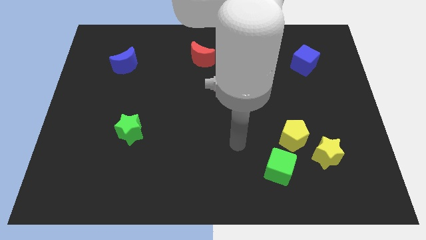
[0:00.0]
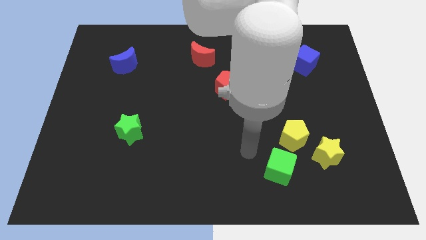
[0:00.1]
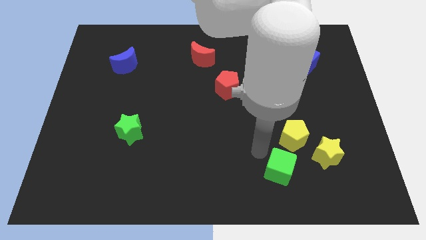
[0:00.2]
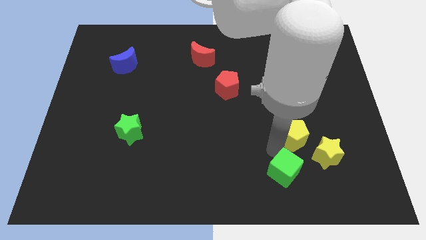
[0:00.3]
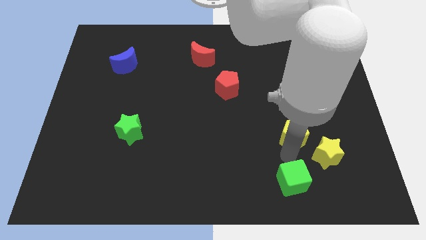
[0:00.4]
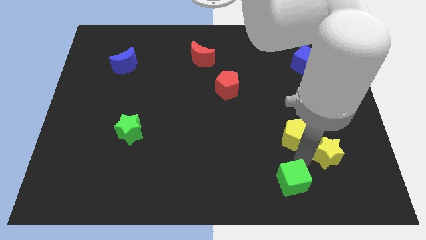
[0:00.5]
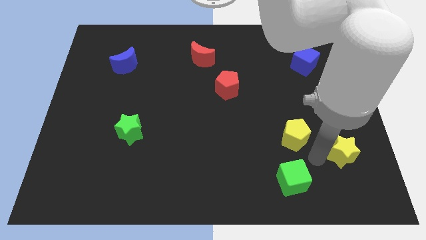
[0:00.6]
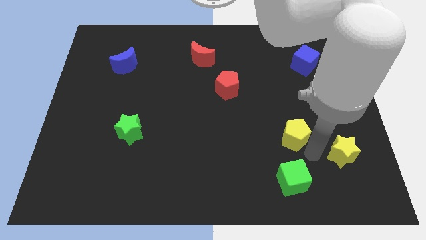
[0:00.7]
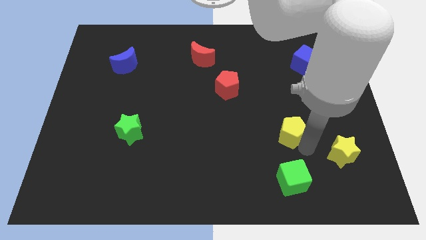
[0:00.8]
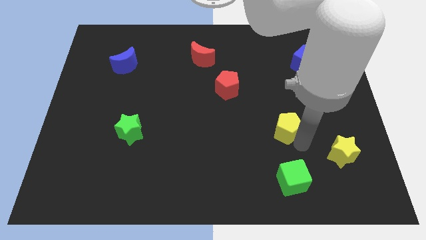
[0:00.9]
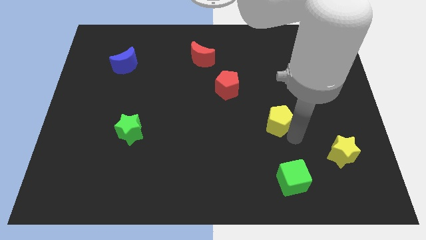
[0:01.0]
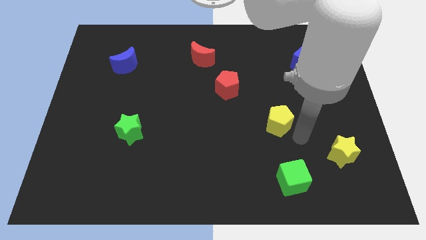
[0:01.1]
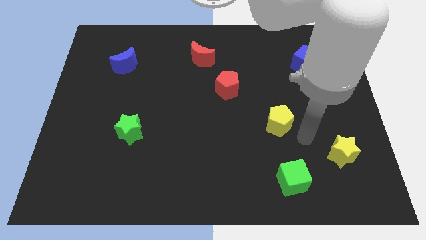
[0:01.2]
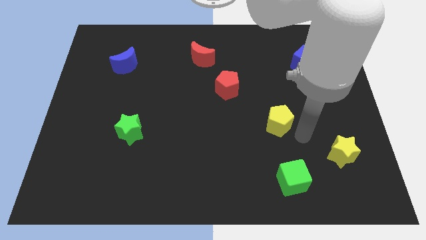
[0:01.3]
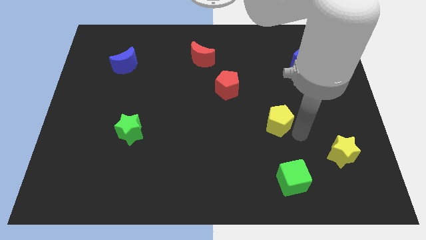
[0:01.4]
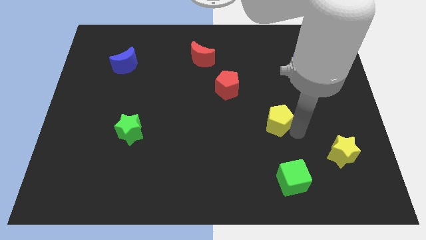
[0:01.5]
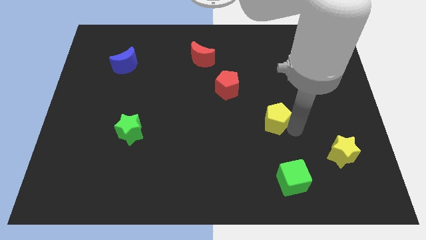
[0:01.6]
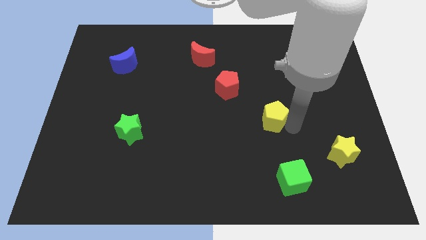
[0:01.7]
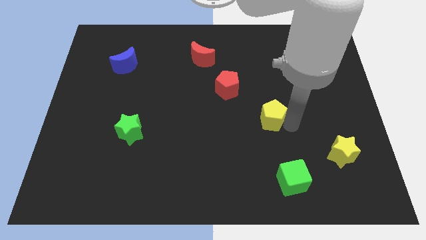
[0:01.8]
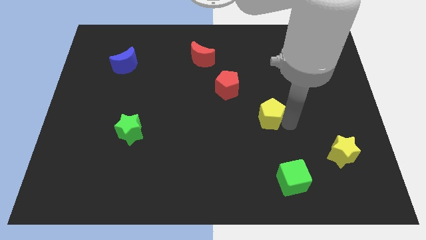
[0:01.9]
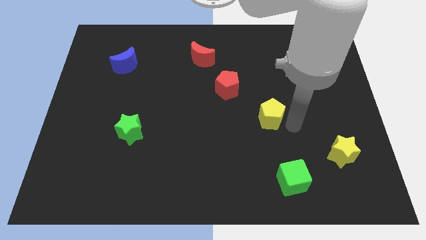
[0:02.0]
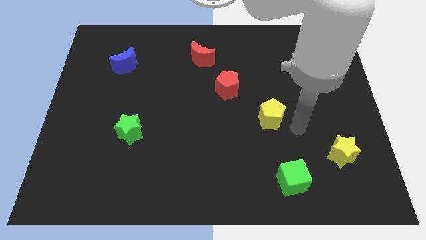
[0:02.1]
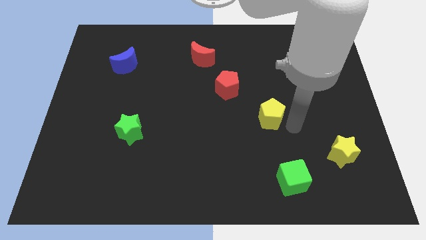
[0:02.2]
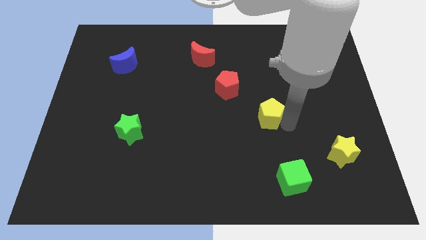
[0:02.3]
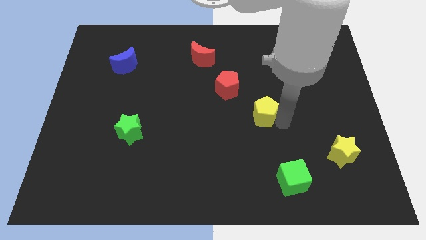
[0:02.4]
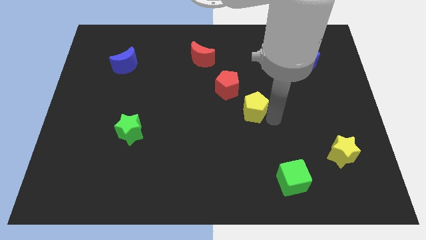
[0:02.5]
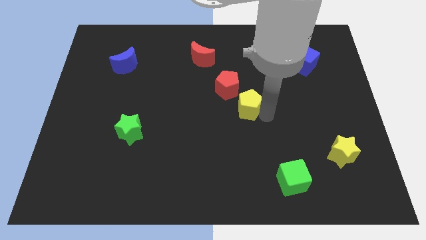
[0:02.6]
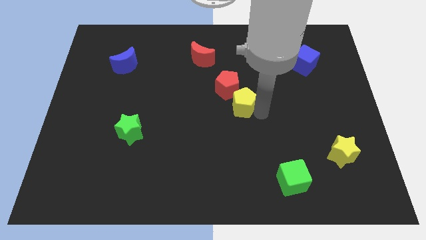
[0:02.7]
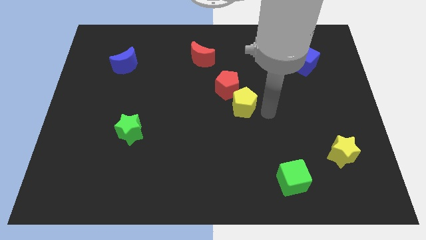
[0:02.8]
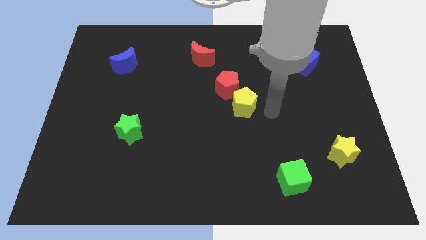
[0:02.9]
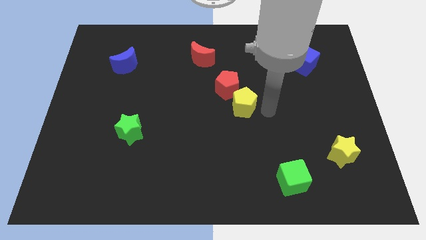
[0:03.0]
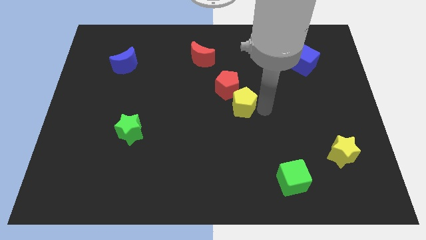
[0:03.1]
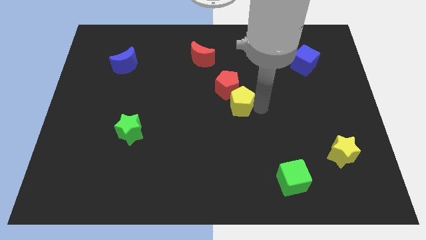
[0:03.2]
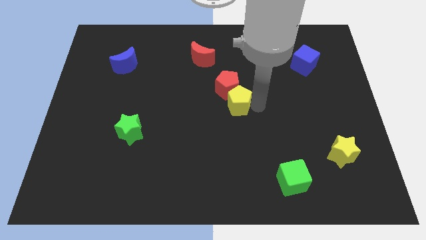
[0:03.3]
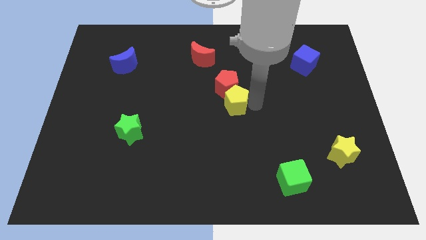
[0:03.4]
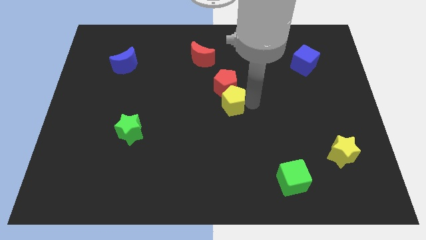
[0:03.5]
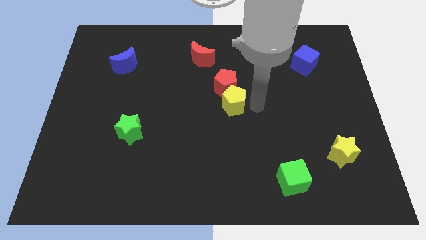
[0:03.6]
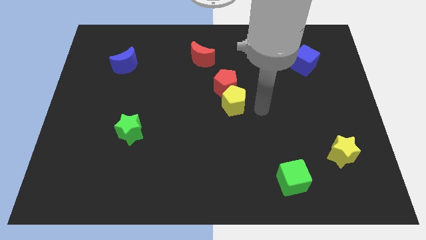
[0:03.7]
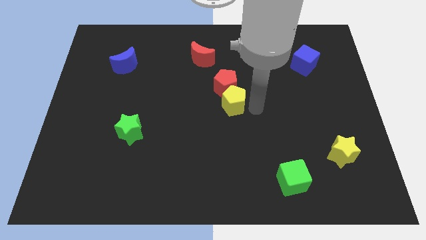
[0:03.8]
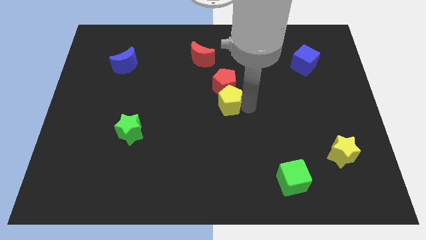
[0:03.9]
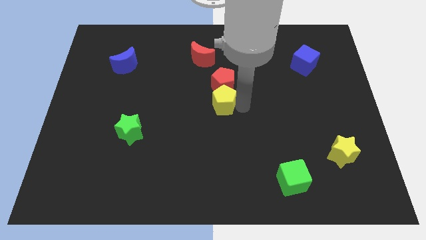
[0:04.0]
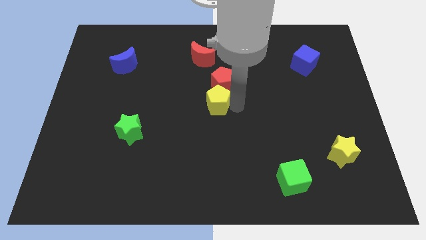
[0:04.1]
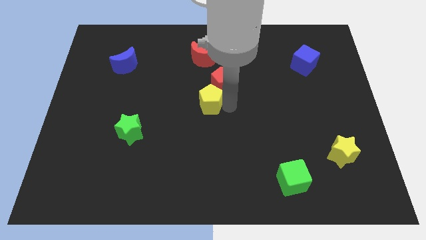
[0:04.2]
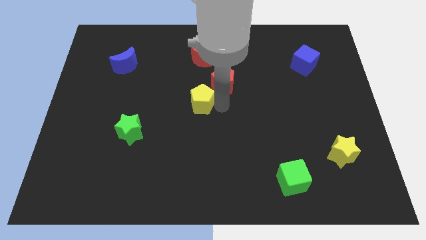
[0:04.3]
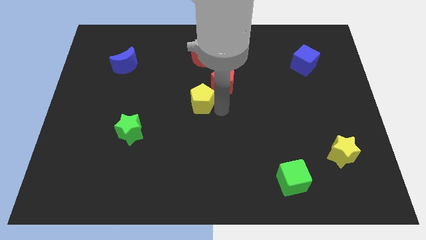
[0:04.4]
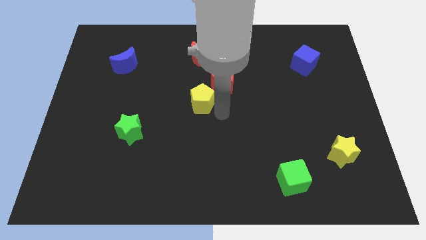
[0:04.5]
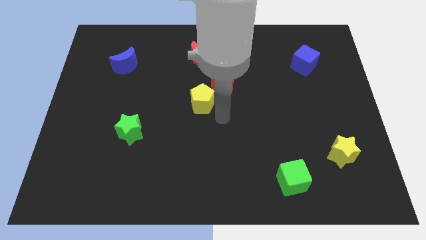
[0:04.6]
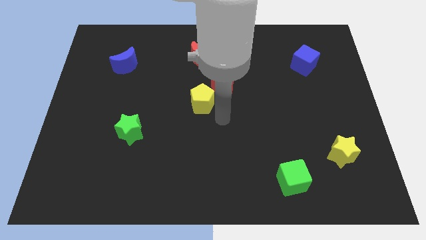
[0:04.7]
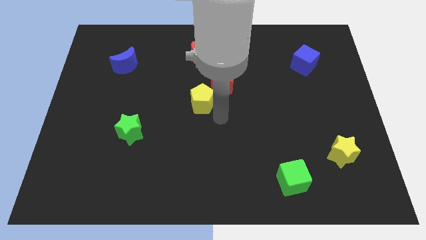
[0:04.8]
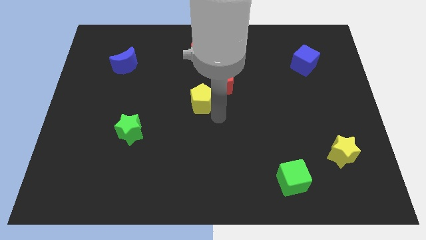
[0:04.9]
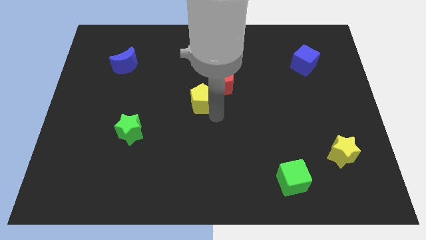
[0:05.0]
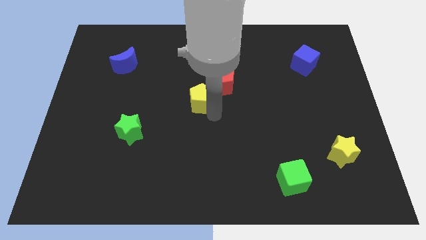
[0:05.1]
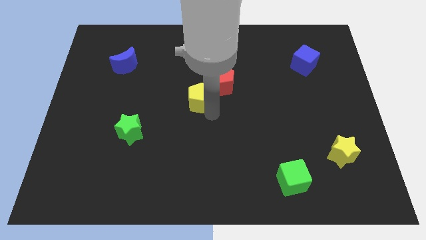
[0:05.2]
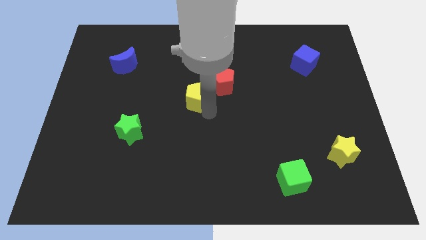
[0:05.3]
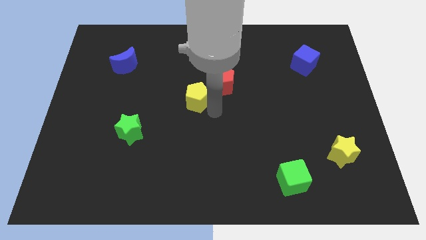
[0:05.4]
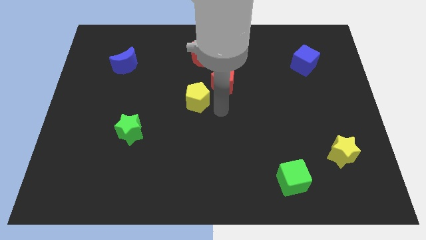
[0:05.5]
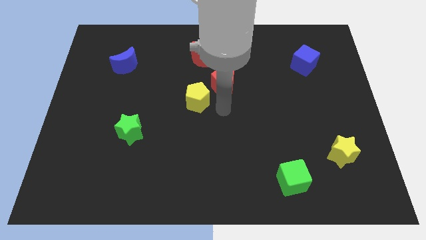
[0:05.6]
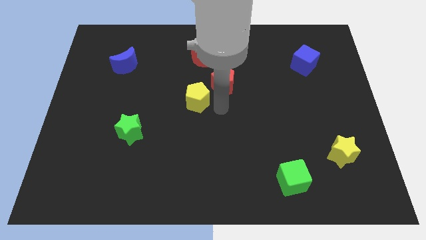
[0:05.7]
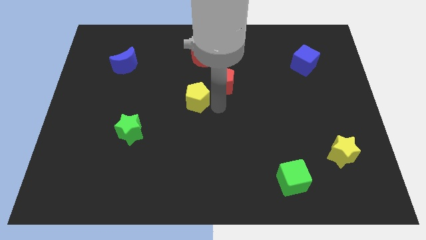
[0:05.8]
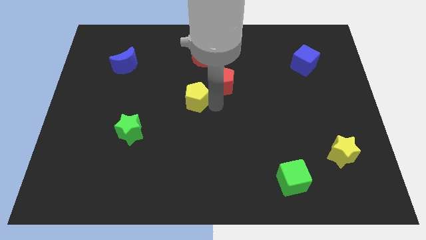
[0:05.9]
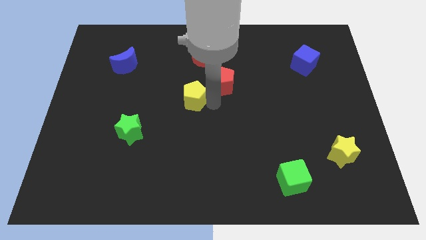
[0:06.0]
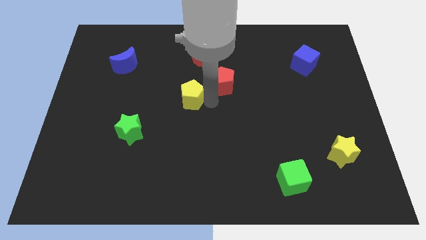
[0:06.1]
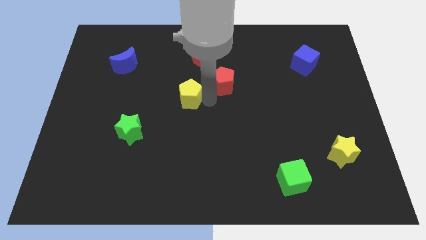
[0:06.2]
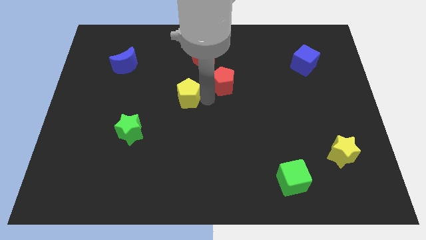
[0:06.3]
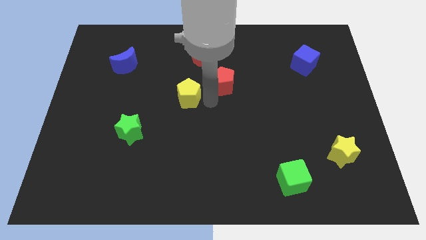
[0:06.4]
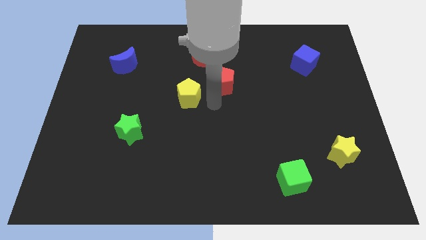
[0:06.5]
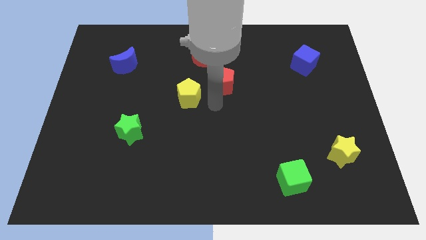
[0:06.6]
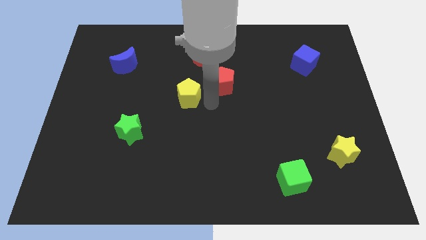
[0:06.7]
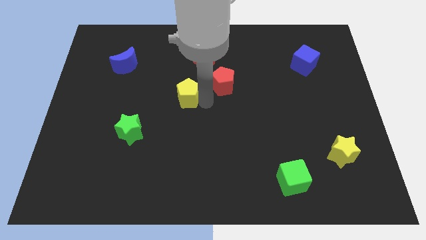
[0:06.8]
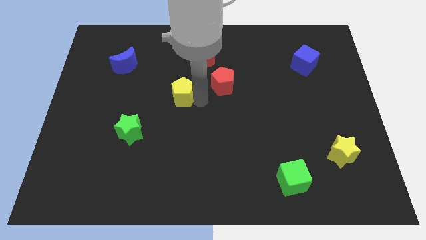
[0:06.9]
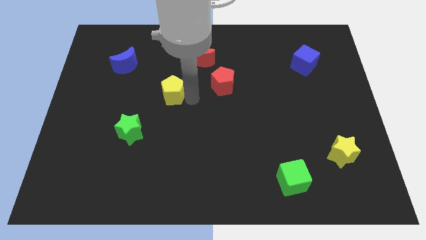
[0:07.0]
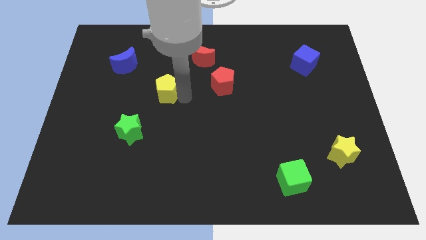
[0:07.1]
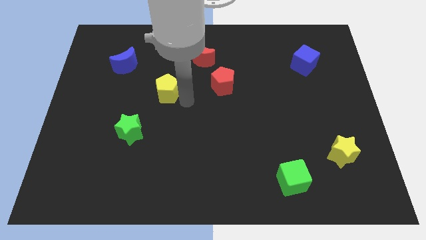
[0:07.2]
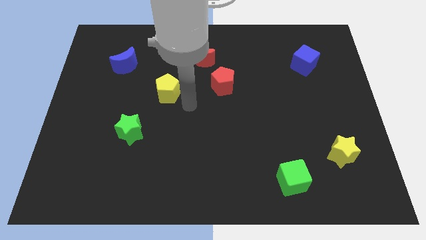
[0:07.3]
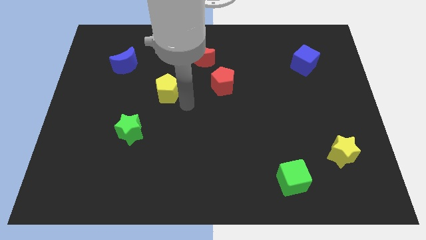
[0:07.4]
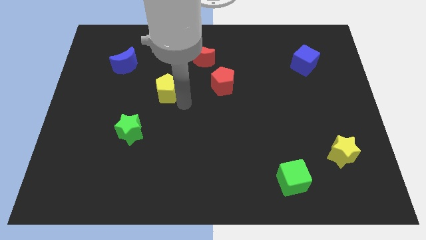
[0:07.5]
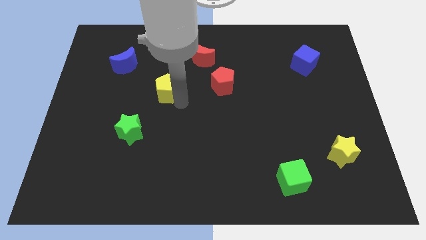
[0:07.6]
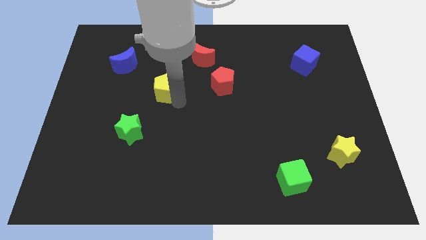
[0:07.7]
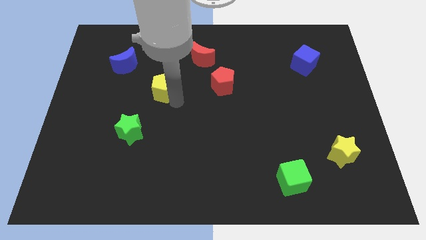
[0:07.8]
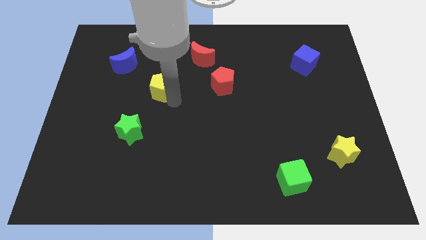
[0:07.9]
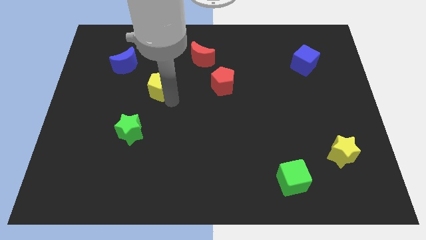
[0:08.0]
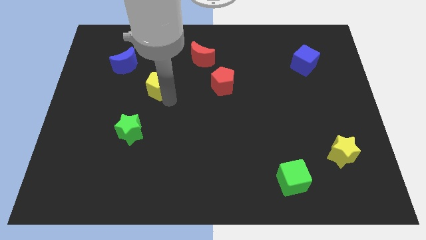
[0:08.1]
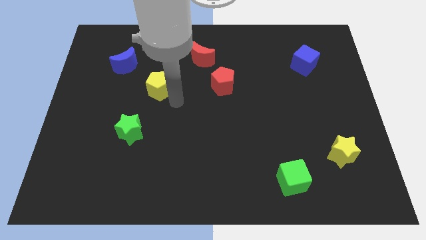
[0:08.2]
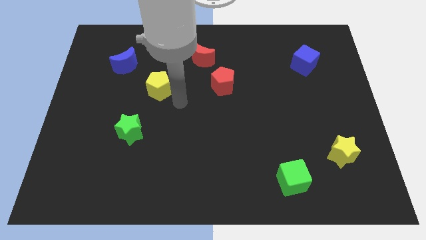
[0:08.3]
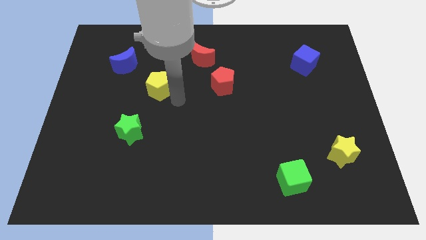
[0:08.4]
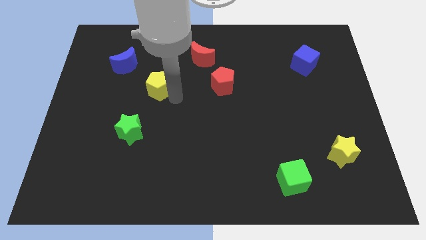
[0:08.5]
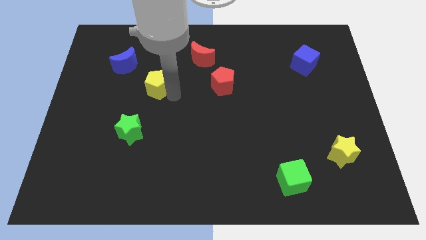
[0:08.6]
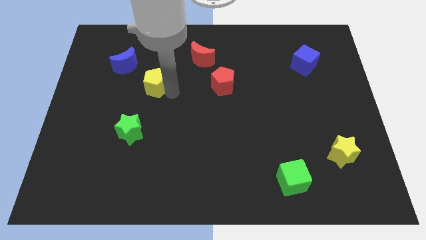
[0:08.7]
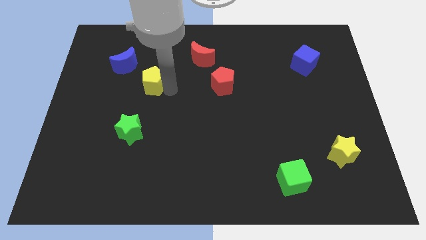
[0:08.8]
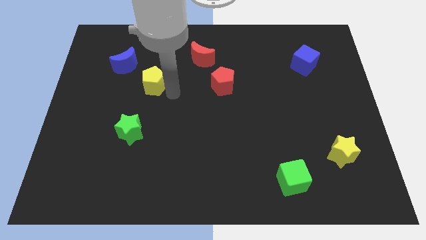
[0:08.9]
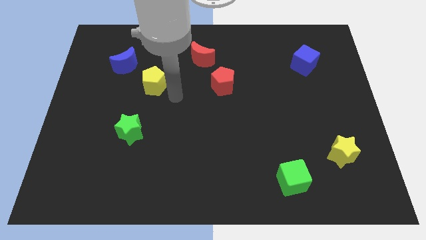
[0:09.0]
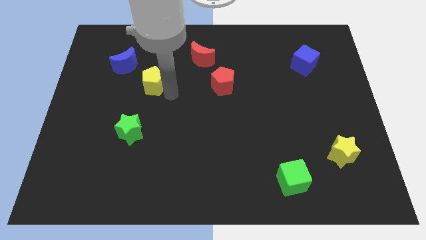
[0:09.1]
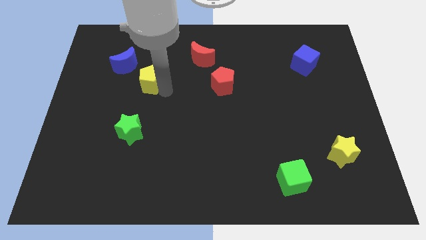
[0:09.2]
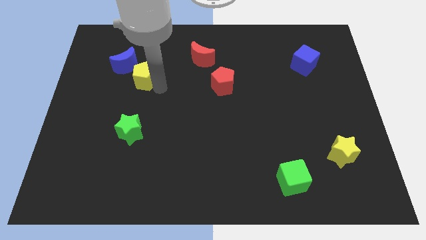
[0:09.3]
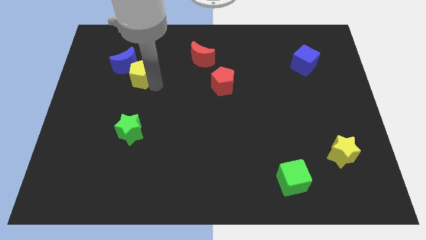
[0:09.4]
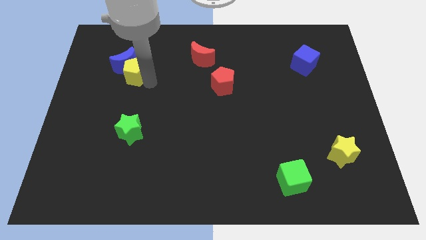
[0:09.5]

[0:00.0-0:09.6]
push the yellow pentagon to the blue moon
